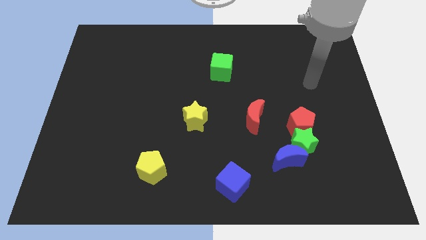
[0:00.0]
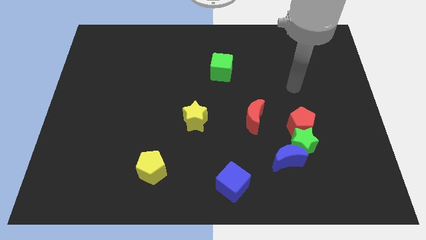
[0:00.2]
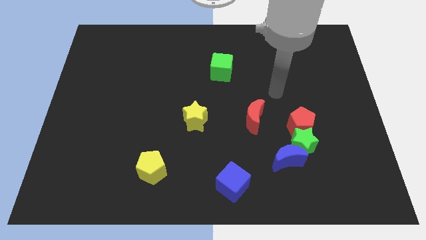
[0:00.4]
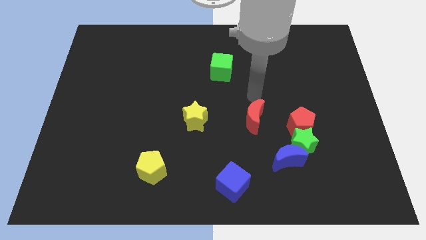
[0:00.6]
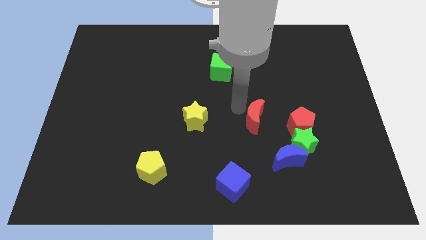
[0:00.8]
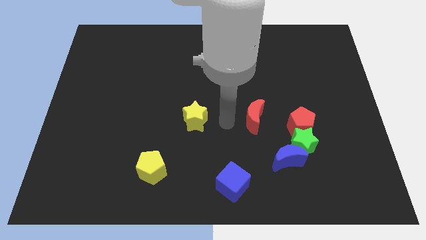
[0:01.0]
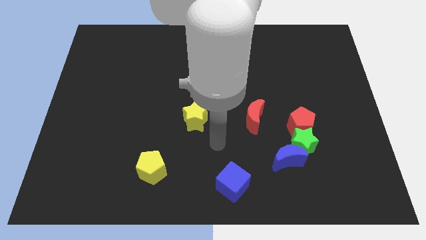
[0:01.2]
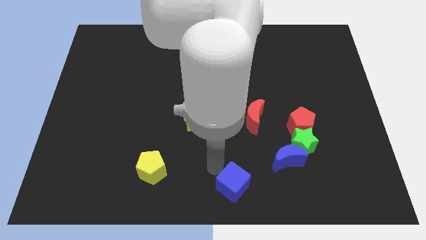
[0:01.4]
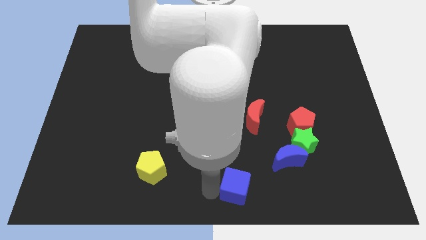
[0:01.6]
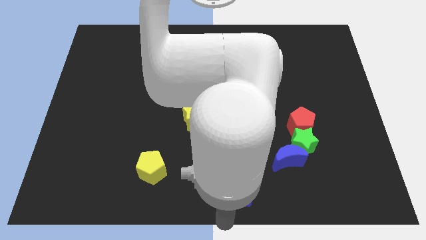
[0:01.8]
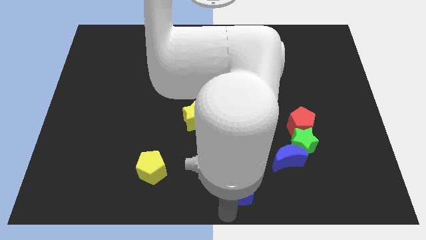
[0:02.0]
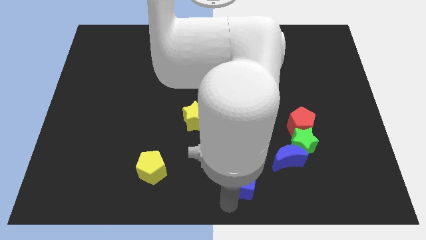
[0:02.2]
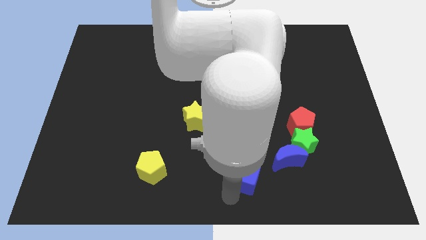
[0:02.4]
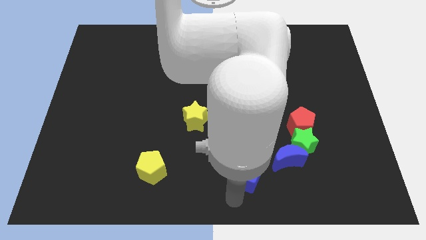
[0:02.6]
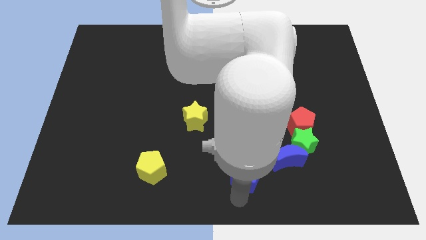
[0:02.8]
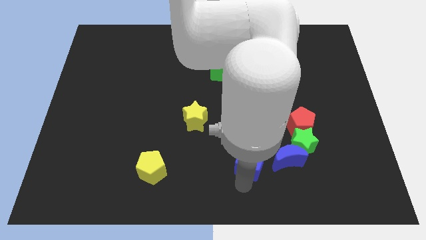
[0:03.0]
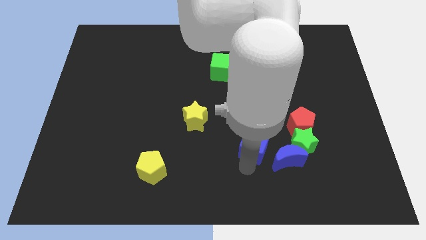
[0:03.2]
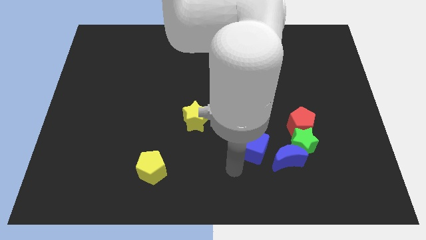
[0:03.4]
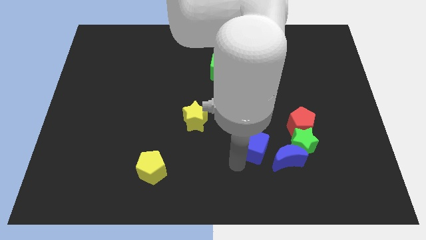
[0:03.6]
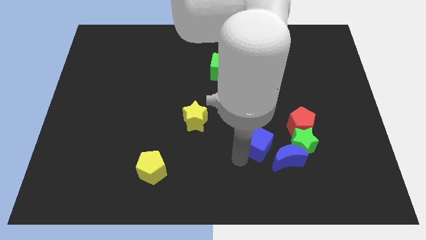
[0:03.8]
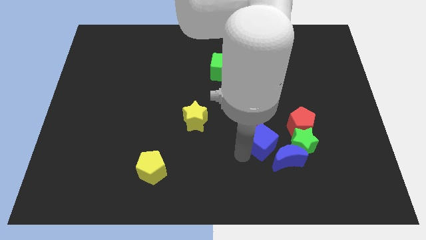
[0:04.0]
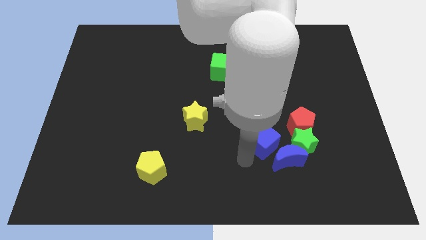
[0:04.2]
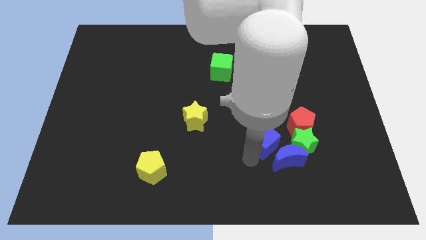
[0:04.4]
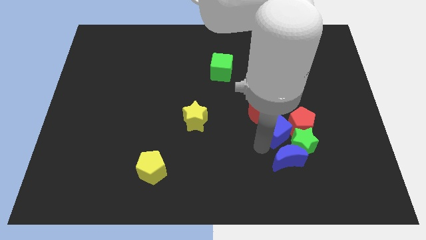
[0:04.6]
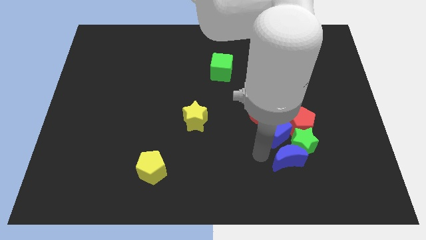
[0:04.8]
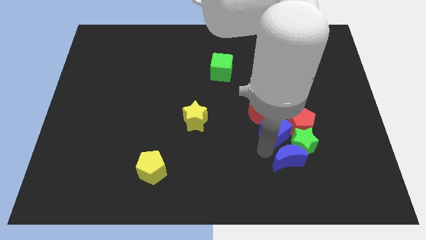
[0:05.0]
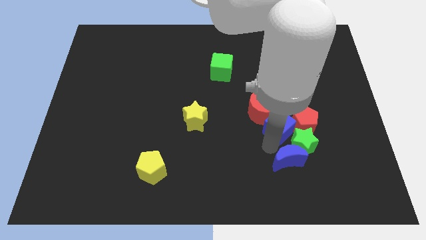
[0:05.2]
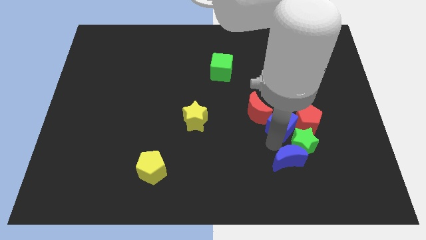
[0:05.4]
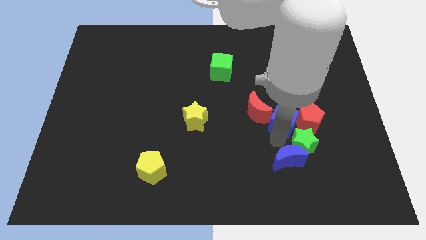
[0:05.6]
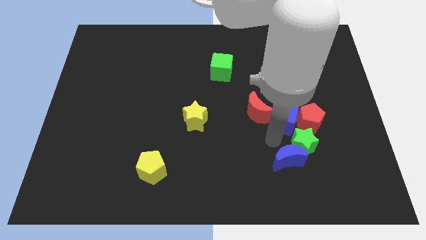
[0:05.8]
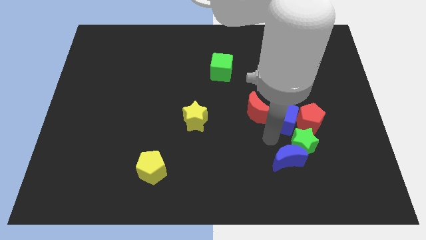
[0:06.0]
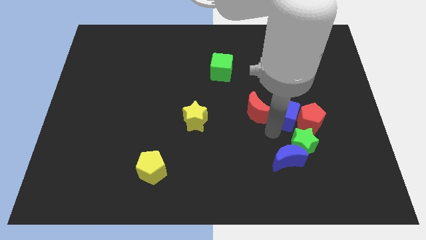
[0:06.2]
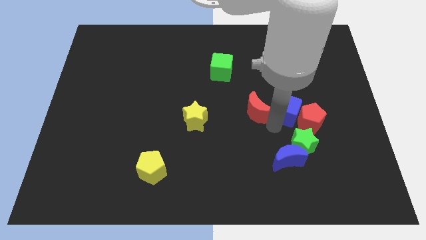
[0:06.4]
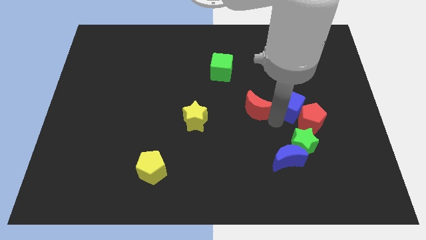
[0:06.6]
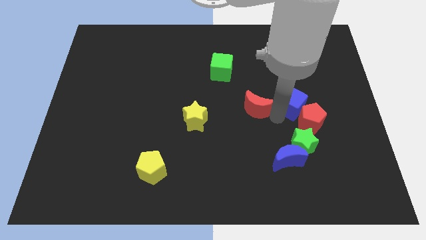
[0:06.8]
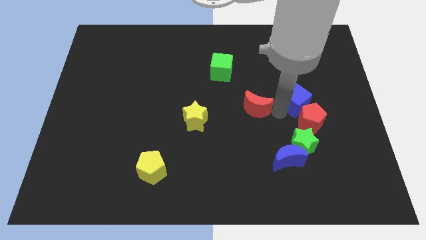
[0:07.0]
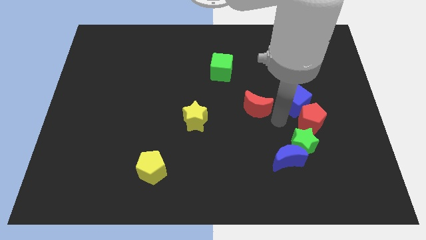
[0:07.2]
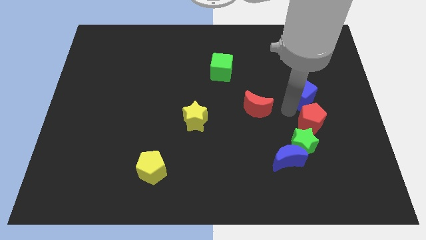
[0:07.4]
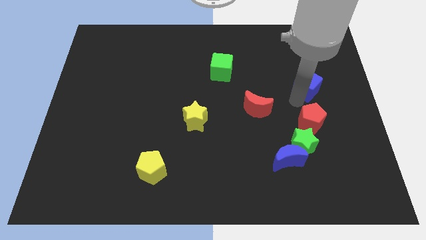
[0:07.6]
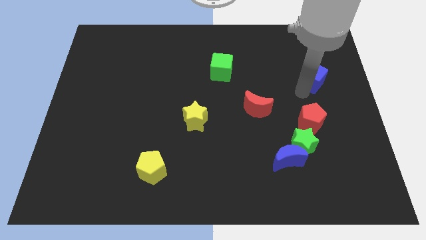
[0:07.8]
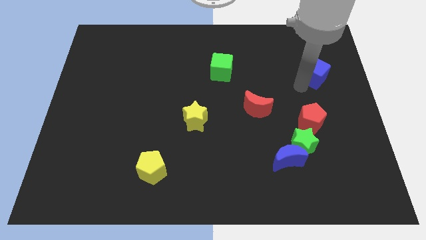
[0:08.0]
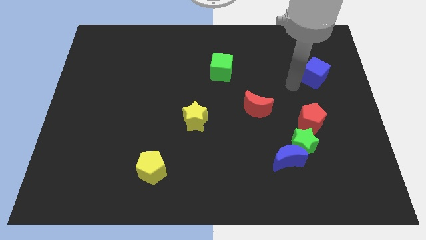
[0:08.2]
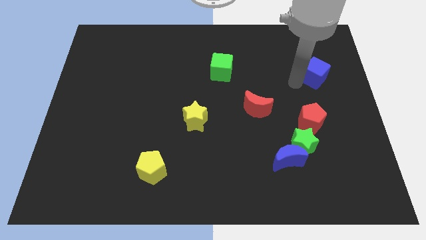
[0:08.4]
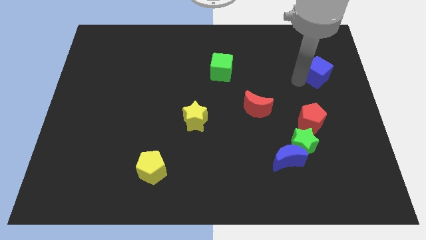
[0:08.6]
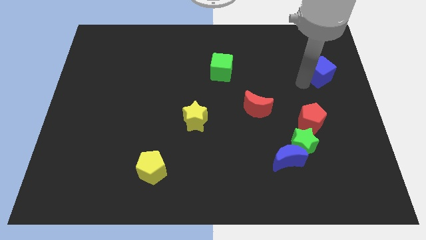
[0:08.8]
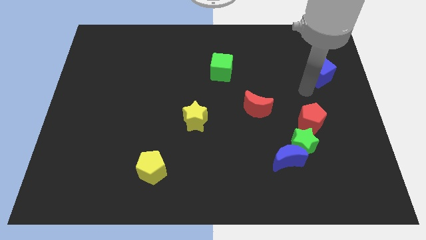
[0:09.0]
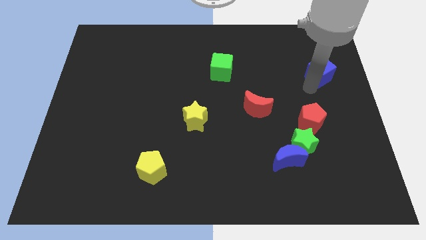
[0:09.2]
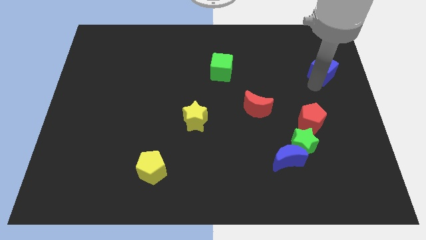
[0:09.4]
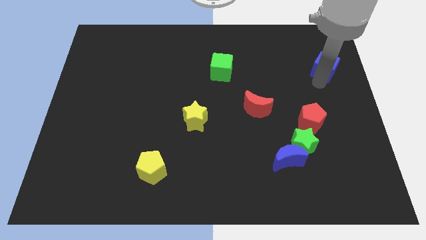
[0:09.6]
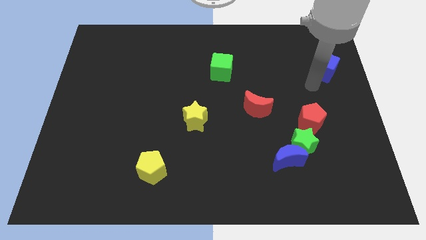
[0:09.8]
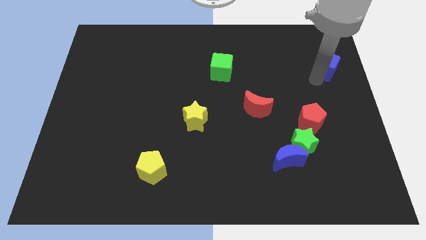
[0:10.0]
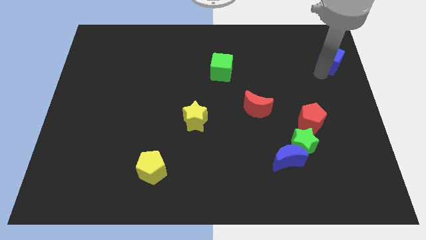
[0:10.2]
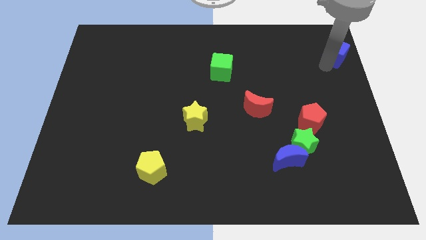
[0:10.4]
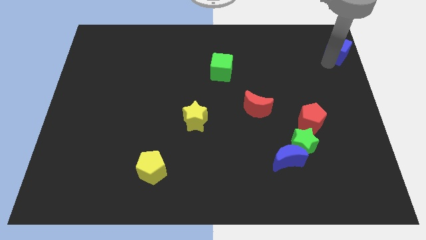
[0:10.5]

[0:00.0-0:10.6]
push the blue cube to the top right corner

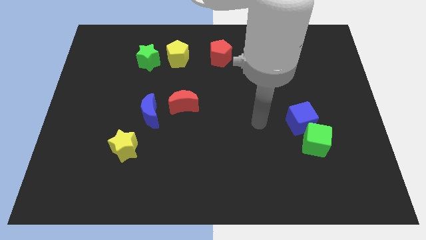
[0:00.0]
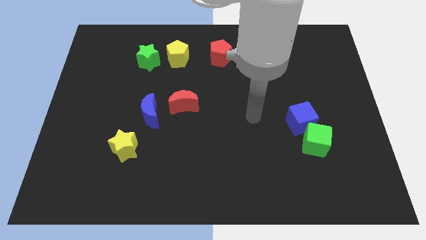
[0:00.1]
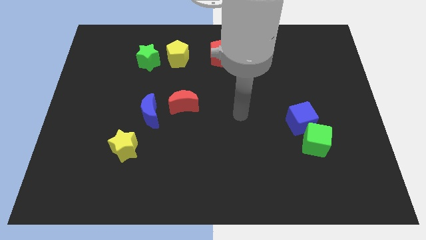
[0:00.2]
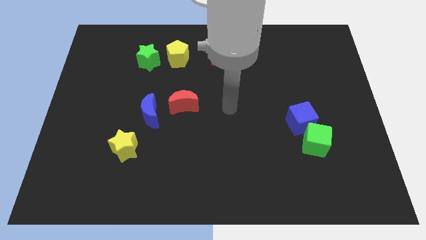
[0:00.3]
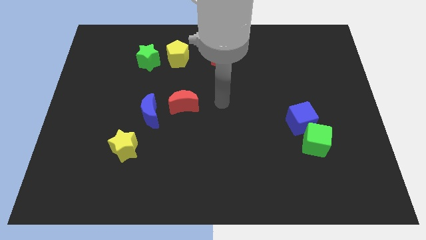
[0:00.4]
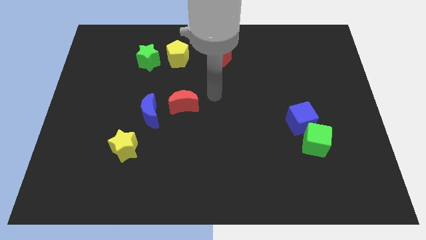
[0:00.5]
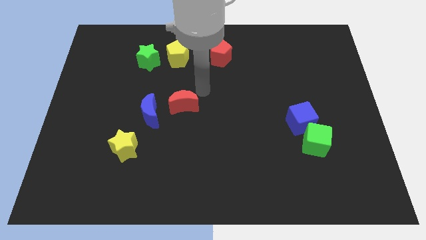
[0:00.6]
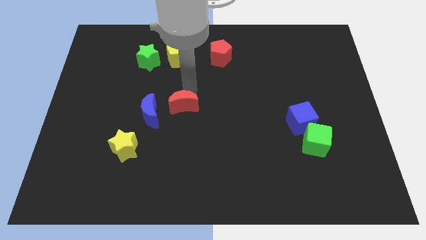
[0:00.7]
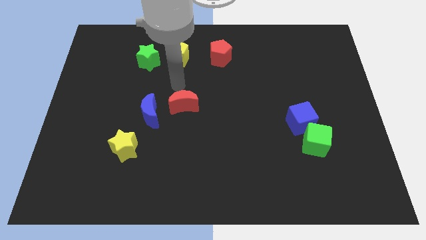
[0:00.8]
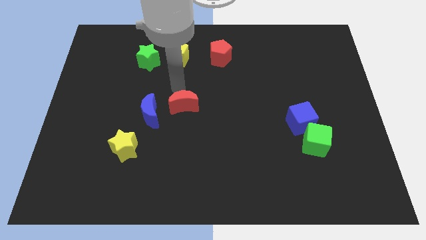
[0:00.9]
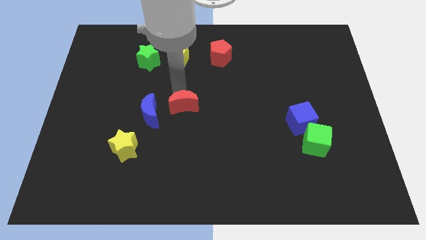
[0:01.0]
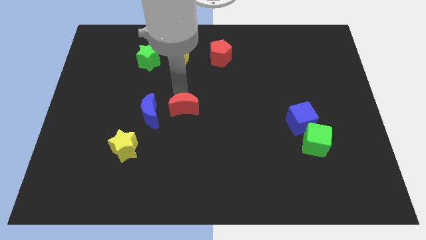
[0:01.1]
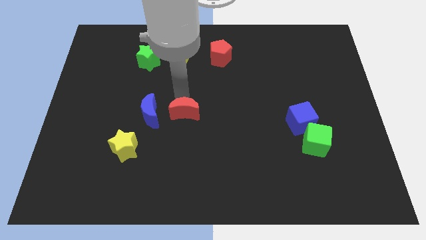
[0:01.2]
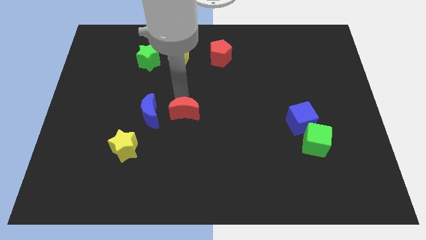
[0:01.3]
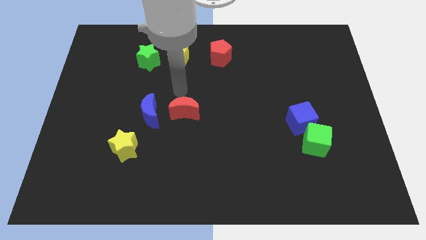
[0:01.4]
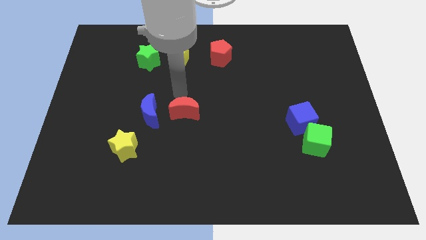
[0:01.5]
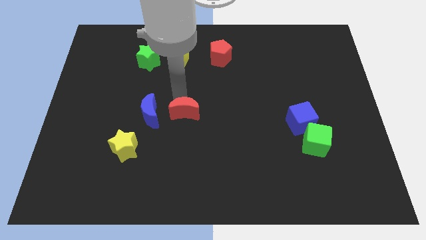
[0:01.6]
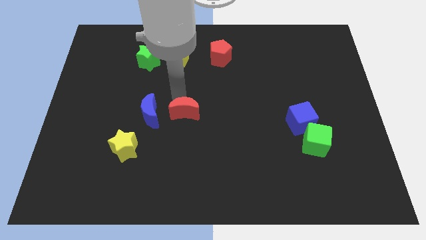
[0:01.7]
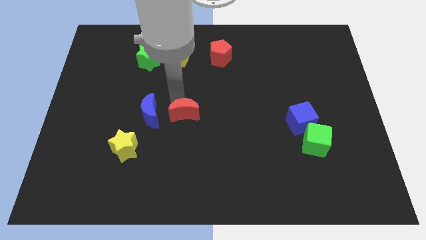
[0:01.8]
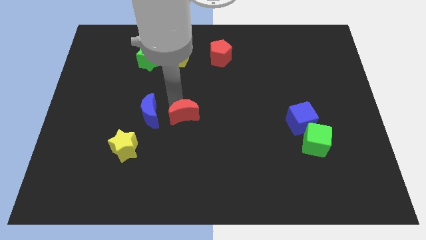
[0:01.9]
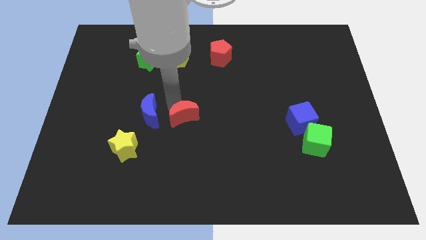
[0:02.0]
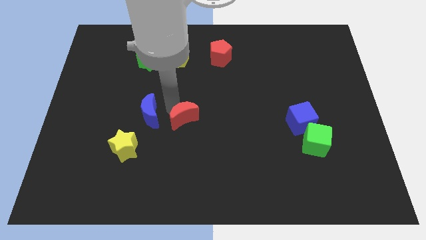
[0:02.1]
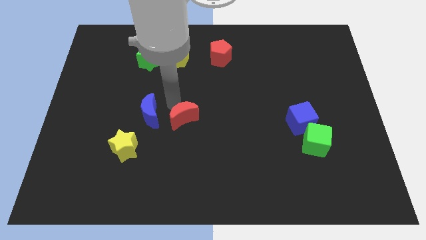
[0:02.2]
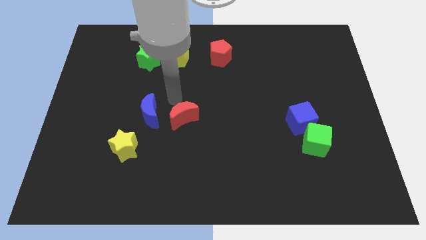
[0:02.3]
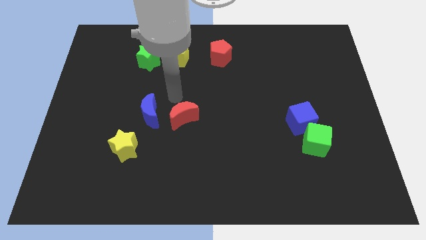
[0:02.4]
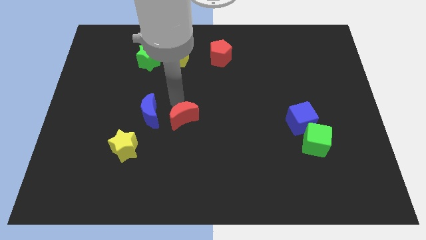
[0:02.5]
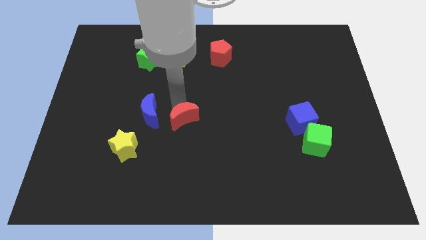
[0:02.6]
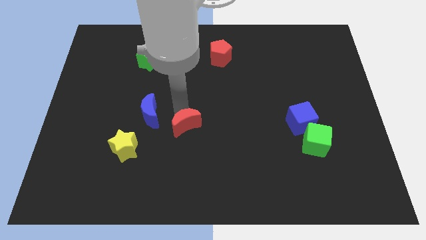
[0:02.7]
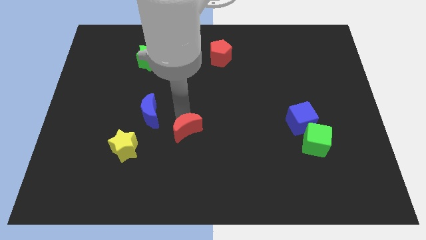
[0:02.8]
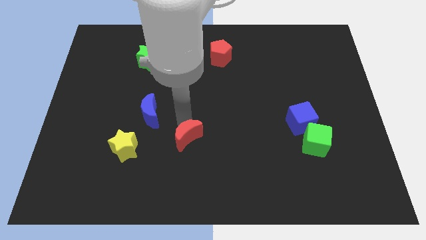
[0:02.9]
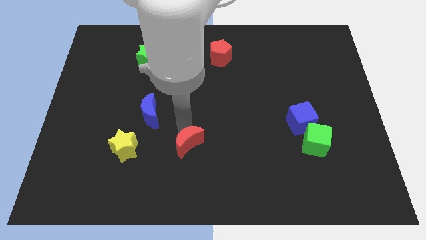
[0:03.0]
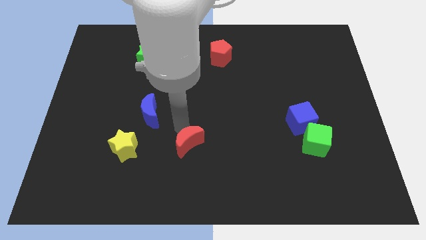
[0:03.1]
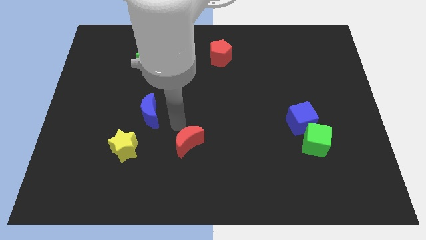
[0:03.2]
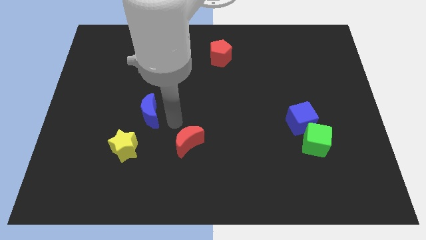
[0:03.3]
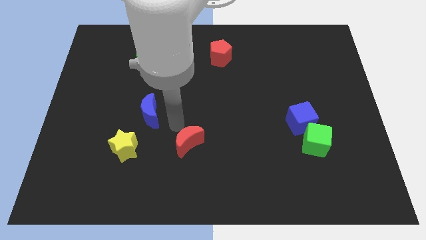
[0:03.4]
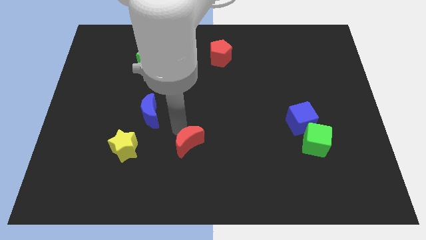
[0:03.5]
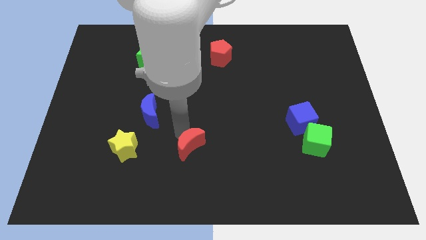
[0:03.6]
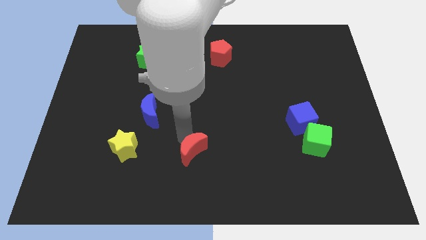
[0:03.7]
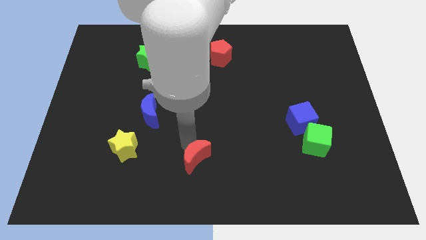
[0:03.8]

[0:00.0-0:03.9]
push the red moon to the bottom
